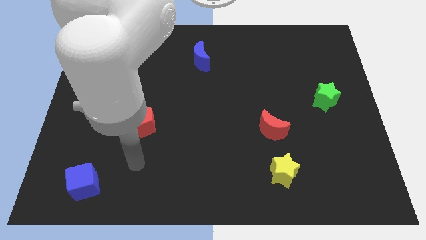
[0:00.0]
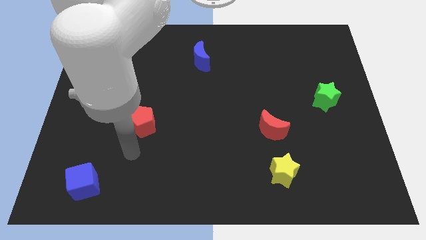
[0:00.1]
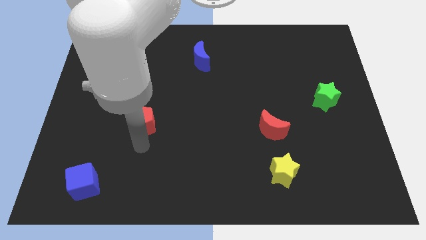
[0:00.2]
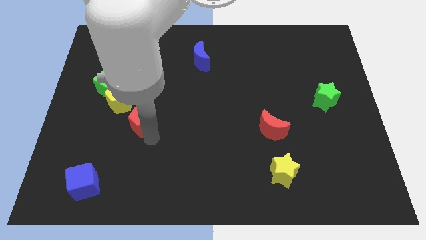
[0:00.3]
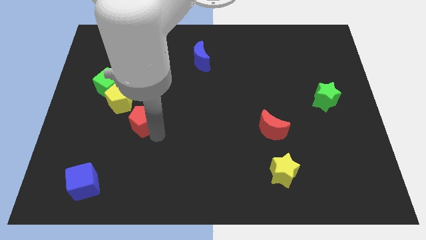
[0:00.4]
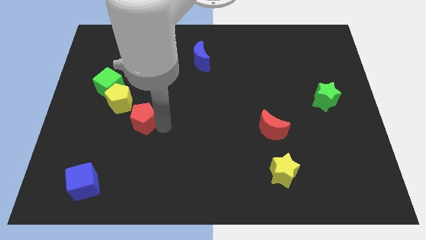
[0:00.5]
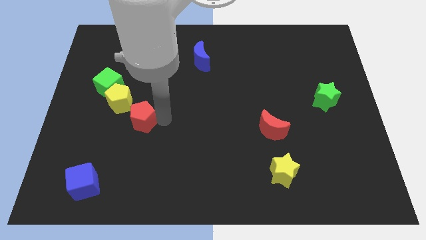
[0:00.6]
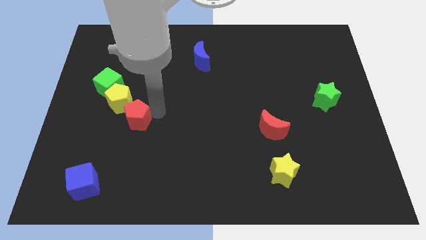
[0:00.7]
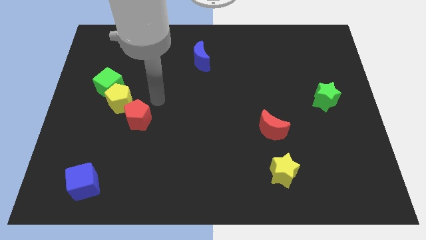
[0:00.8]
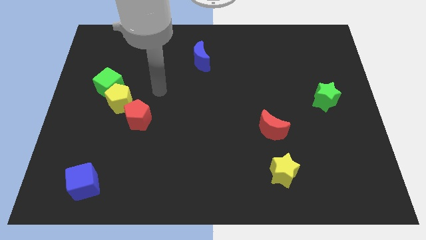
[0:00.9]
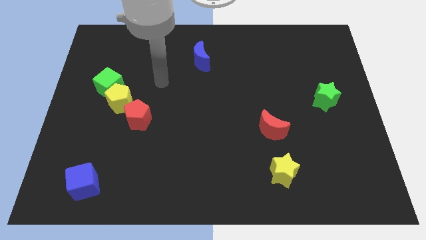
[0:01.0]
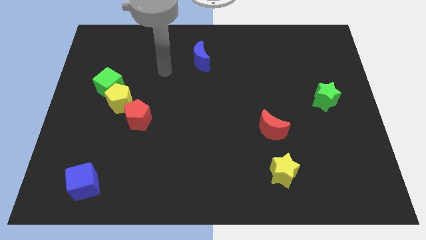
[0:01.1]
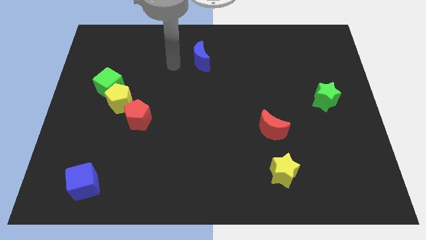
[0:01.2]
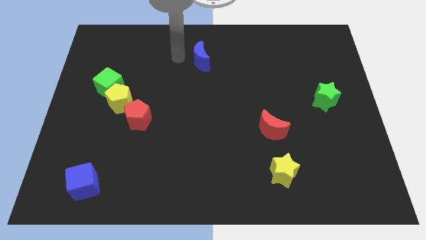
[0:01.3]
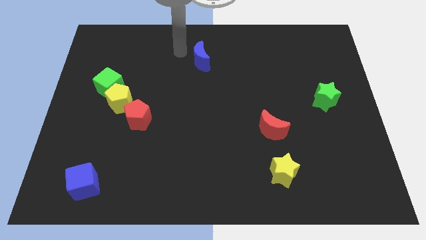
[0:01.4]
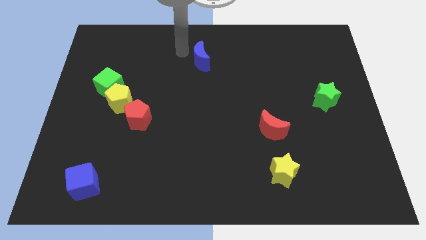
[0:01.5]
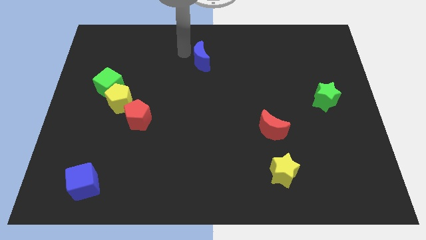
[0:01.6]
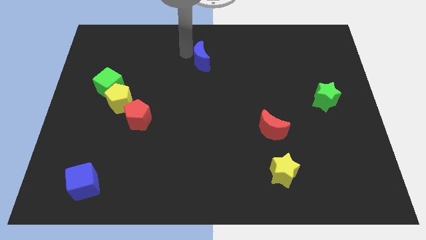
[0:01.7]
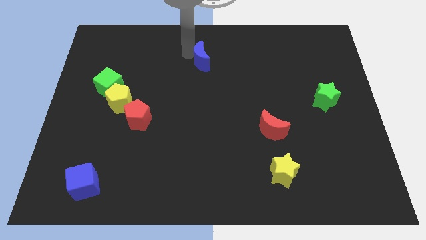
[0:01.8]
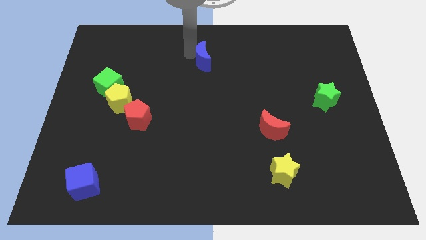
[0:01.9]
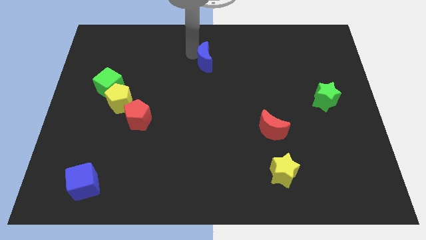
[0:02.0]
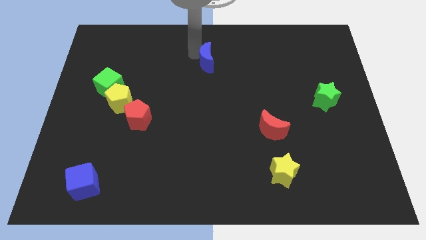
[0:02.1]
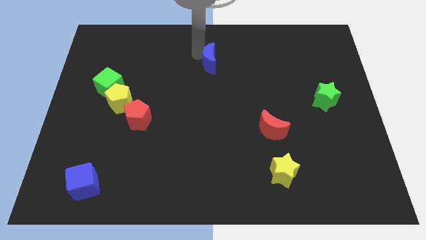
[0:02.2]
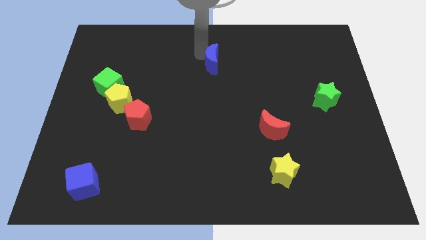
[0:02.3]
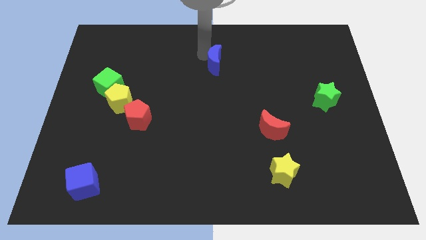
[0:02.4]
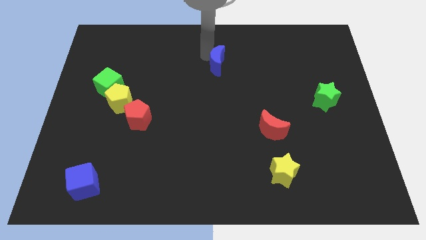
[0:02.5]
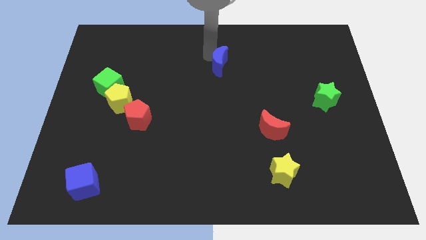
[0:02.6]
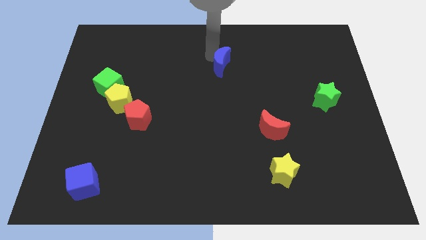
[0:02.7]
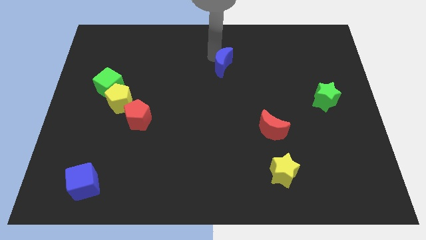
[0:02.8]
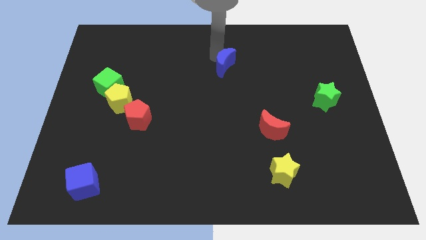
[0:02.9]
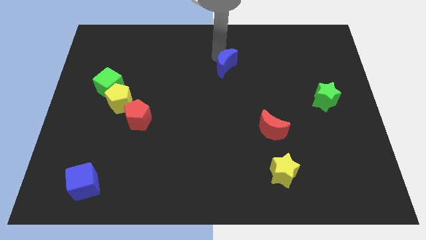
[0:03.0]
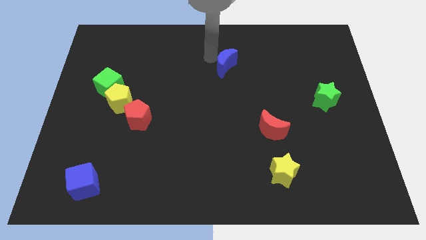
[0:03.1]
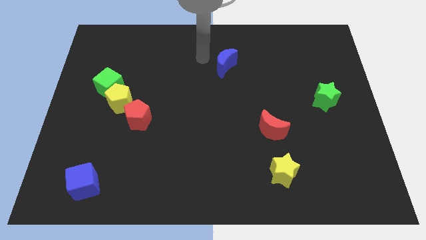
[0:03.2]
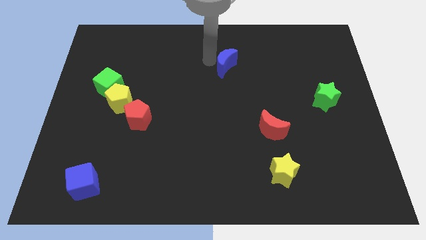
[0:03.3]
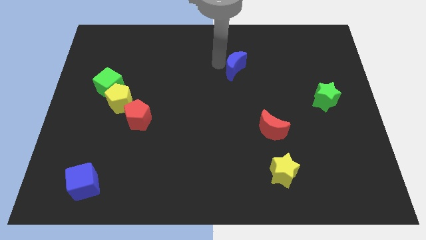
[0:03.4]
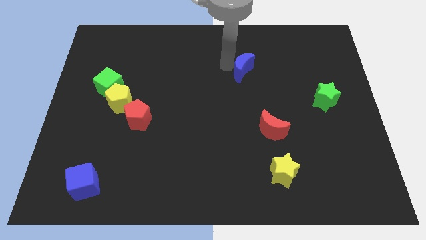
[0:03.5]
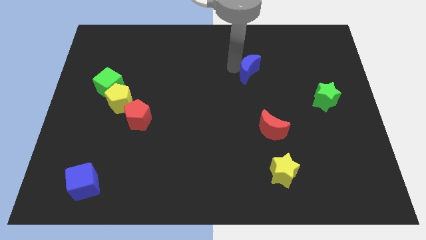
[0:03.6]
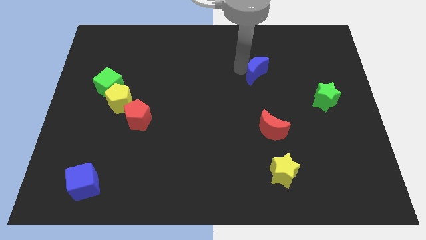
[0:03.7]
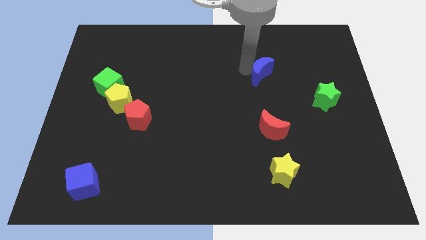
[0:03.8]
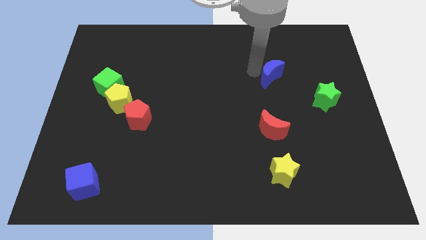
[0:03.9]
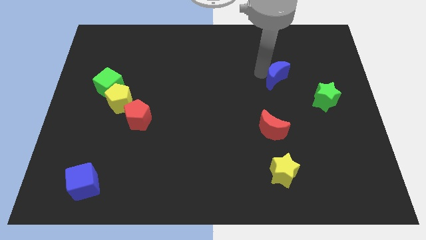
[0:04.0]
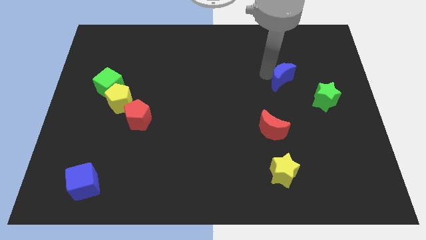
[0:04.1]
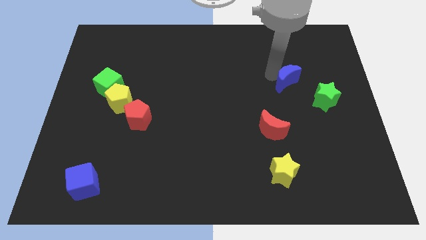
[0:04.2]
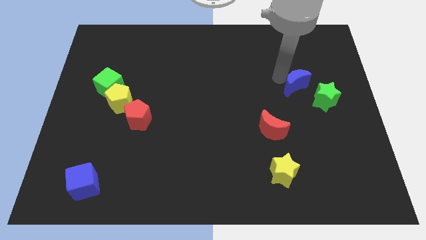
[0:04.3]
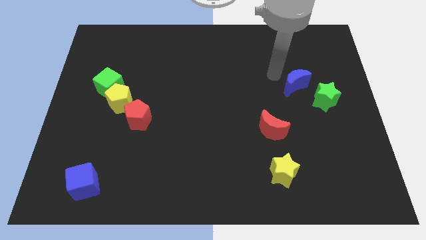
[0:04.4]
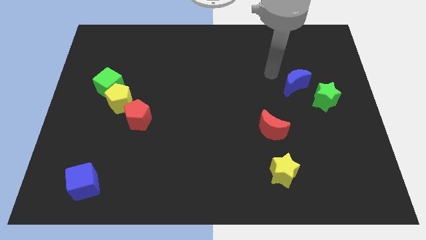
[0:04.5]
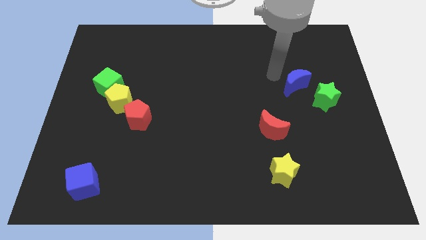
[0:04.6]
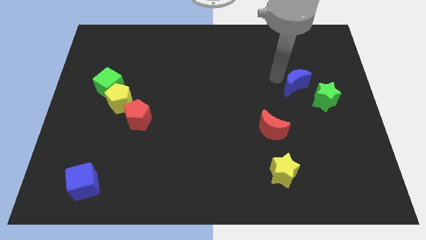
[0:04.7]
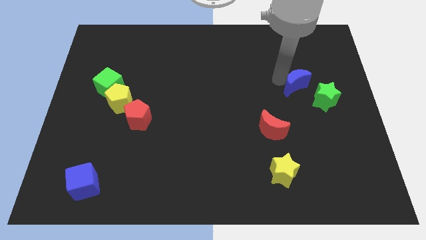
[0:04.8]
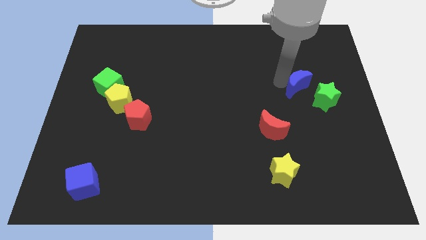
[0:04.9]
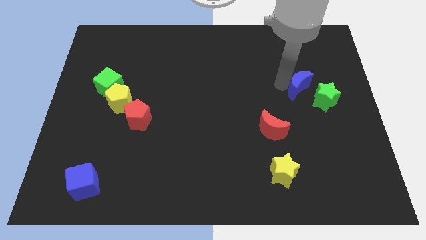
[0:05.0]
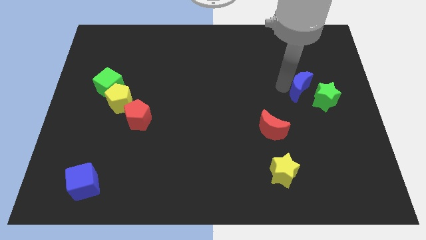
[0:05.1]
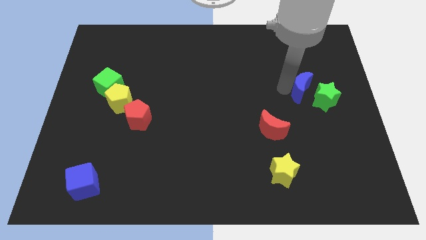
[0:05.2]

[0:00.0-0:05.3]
move the blue moon to the green star

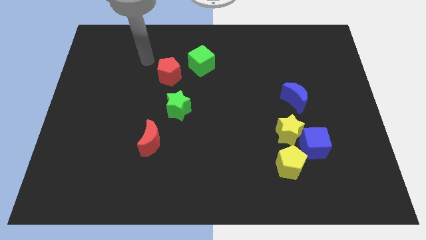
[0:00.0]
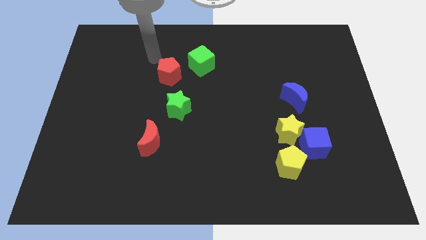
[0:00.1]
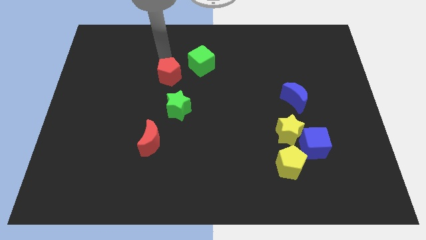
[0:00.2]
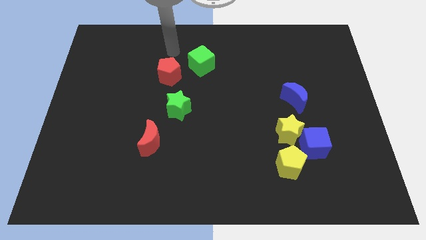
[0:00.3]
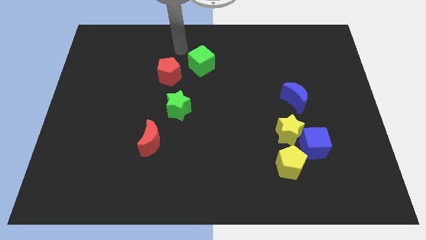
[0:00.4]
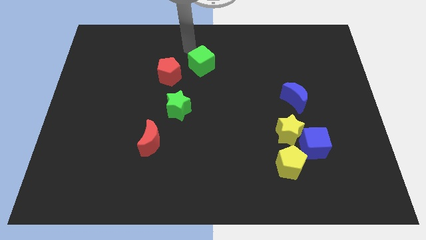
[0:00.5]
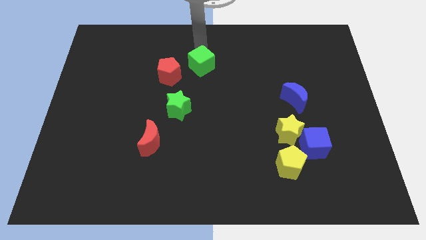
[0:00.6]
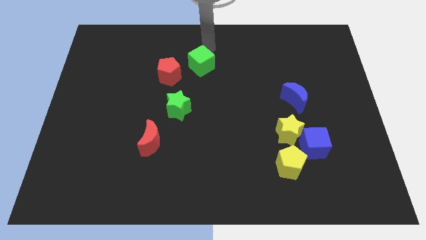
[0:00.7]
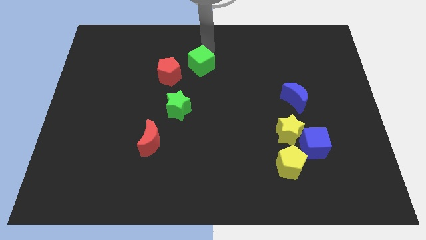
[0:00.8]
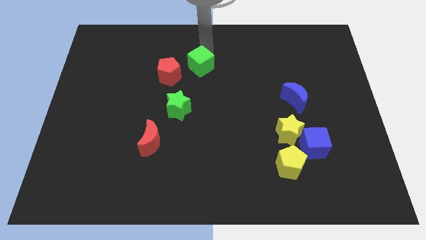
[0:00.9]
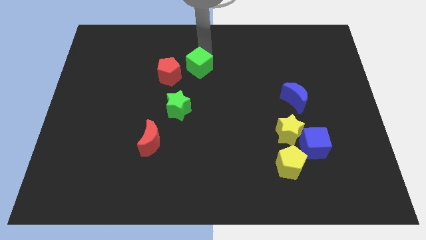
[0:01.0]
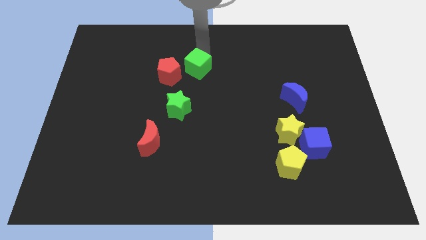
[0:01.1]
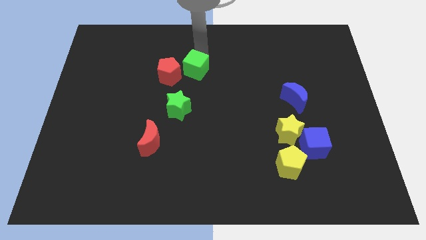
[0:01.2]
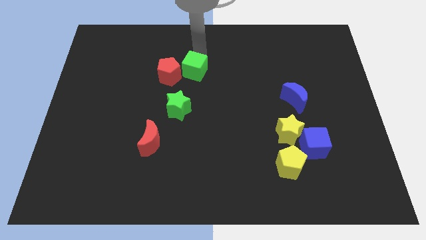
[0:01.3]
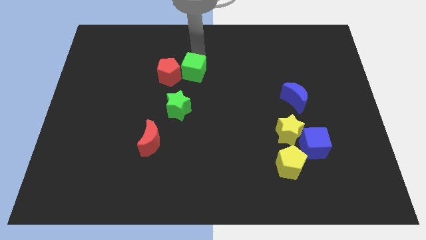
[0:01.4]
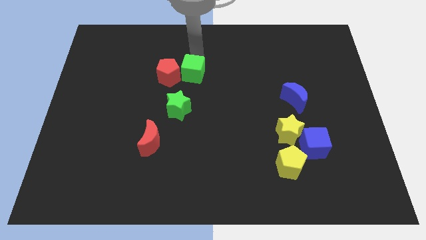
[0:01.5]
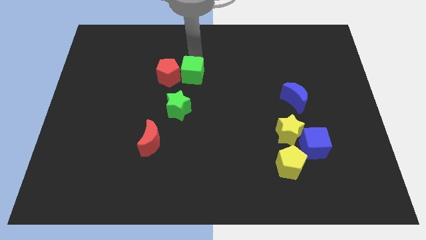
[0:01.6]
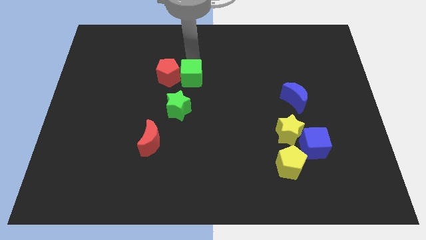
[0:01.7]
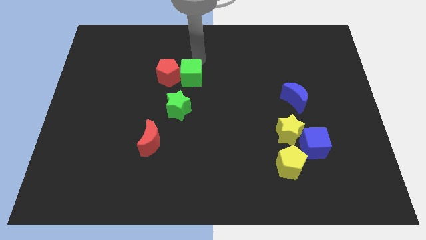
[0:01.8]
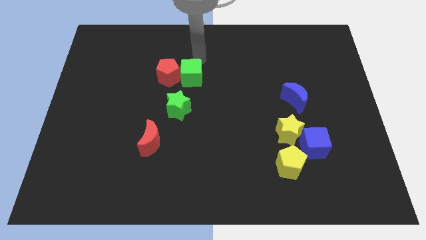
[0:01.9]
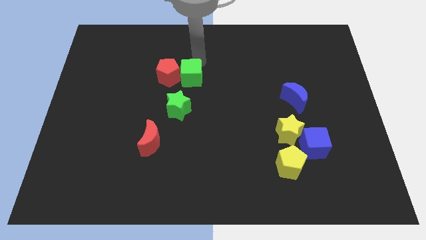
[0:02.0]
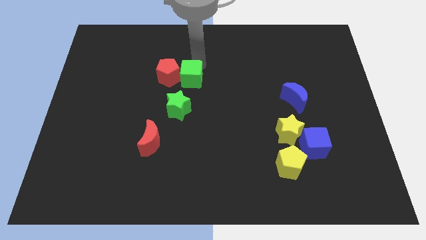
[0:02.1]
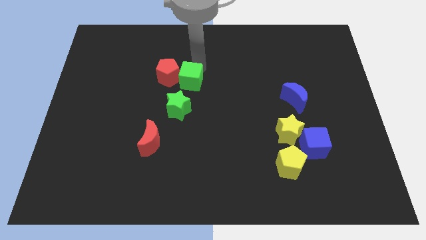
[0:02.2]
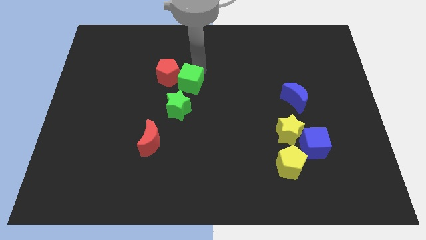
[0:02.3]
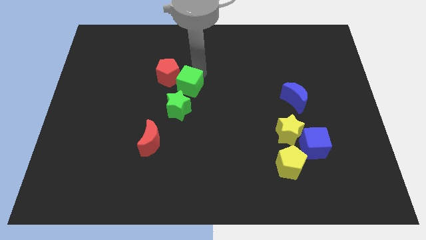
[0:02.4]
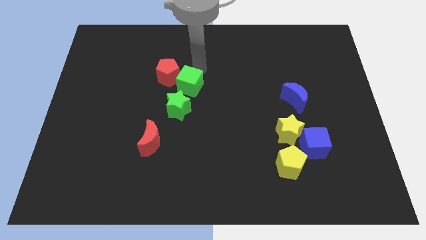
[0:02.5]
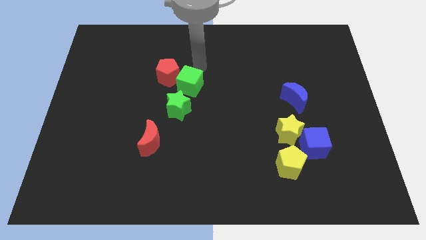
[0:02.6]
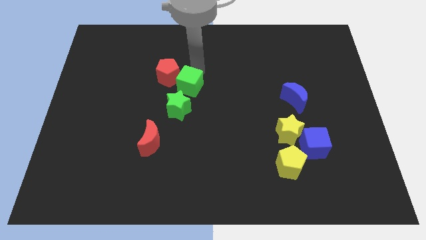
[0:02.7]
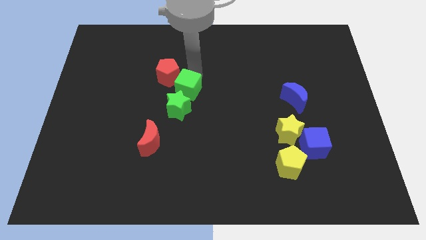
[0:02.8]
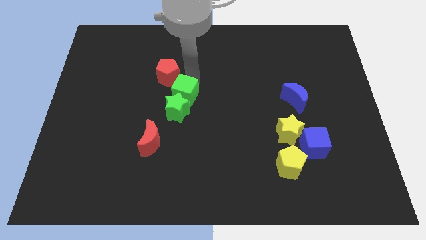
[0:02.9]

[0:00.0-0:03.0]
move the green cube to the green star
